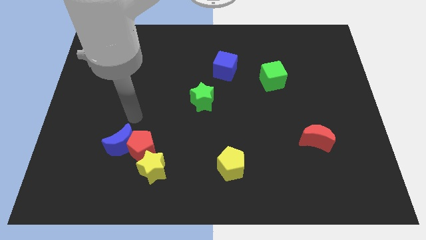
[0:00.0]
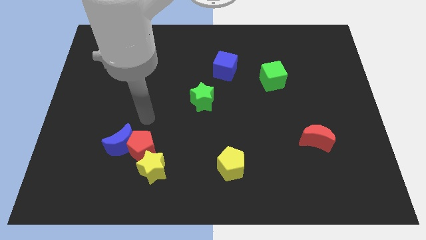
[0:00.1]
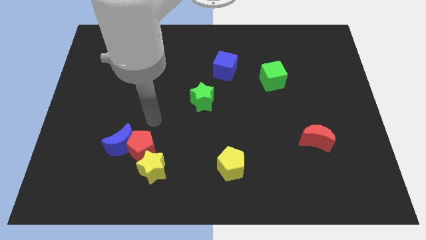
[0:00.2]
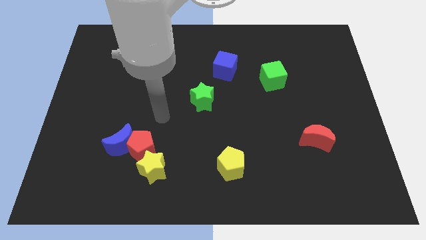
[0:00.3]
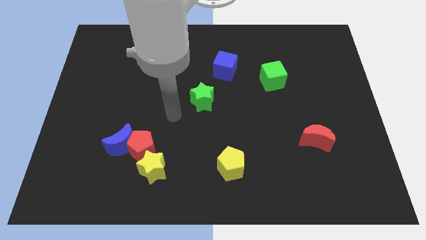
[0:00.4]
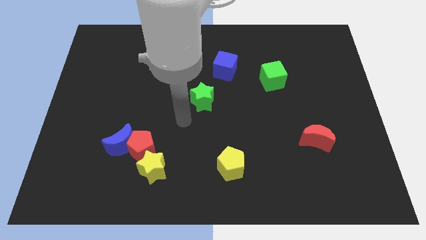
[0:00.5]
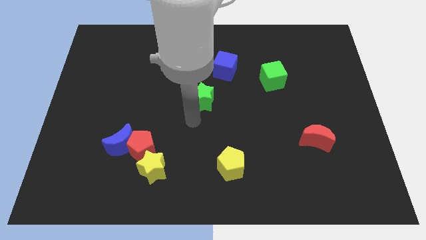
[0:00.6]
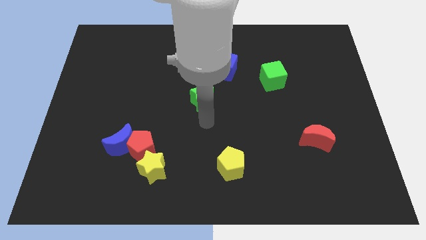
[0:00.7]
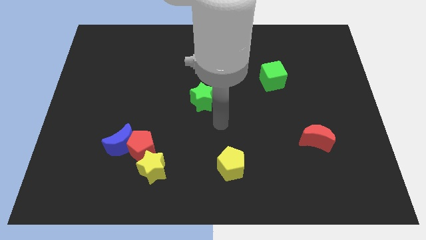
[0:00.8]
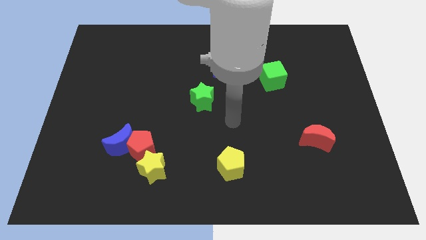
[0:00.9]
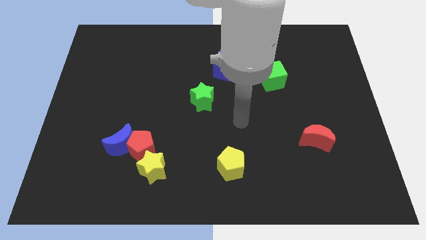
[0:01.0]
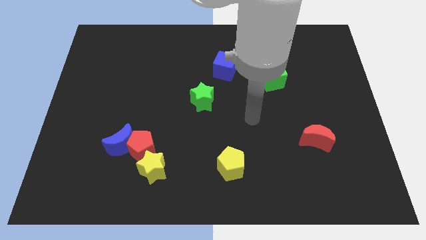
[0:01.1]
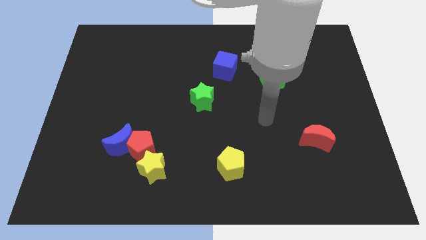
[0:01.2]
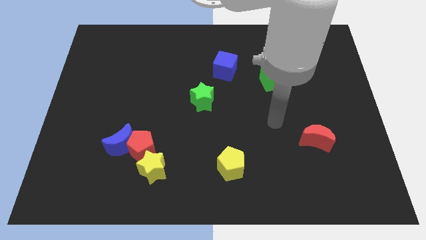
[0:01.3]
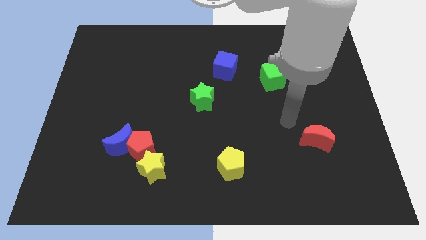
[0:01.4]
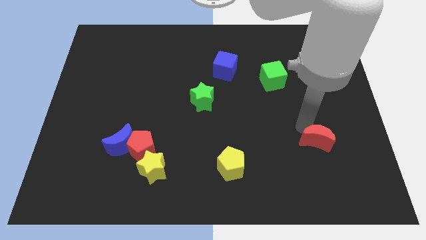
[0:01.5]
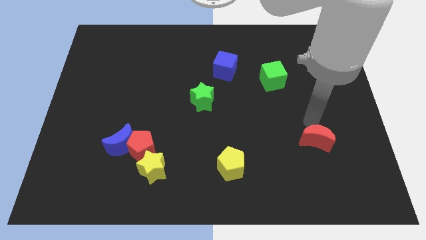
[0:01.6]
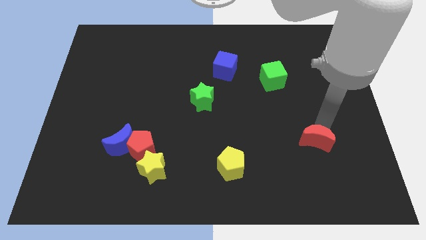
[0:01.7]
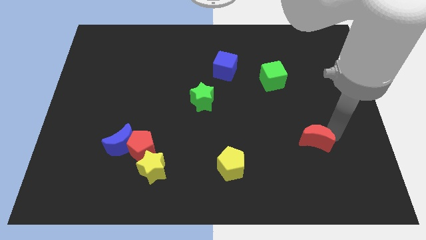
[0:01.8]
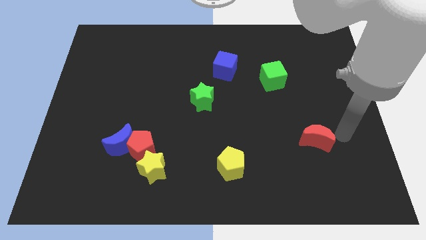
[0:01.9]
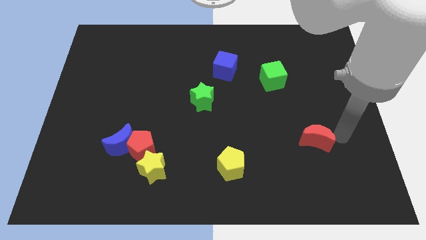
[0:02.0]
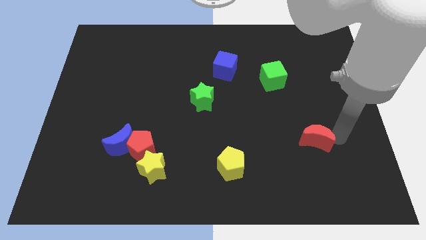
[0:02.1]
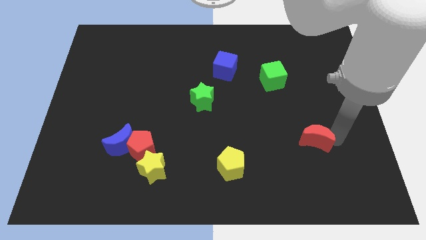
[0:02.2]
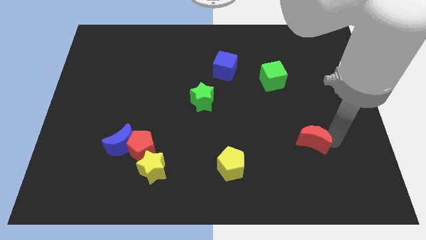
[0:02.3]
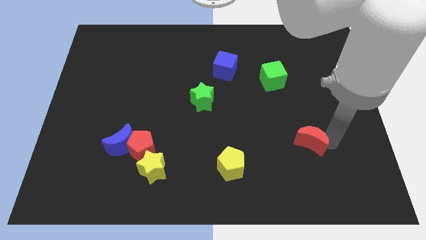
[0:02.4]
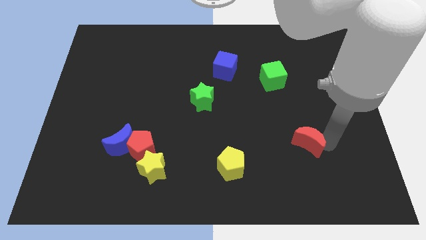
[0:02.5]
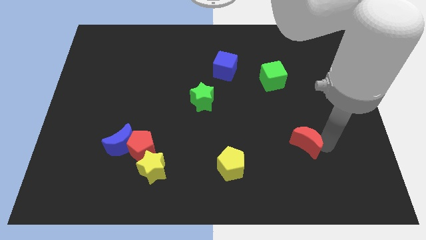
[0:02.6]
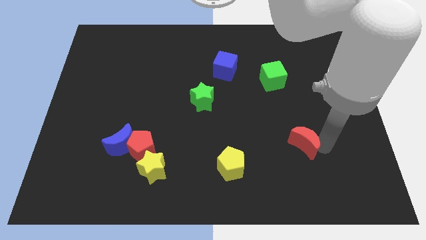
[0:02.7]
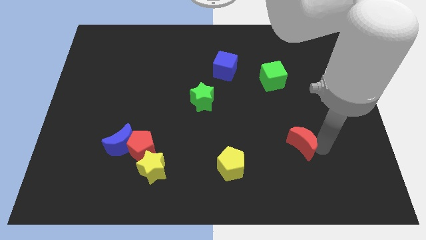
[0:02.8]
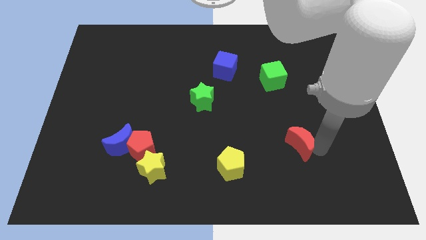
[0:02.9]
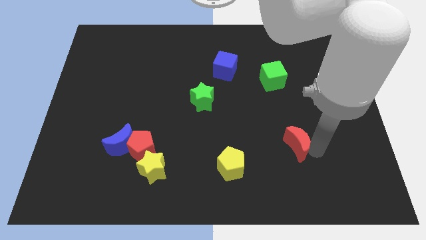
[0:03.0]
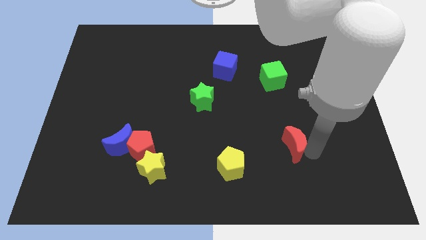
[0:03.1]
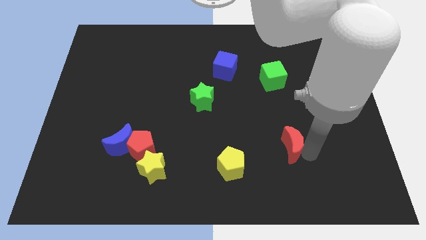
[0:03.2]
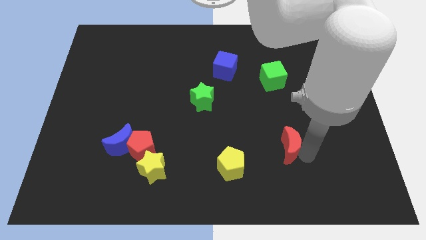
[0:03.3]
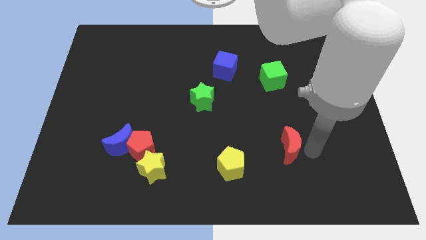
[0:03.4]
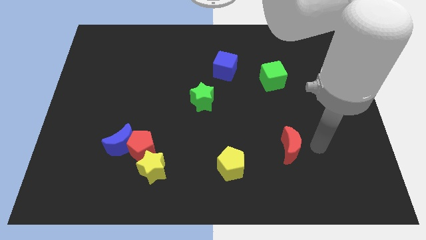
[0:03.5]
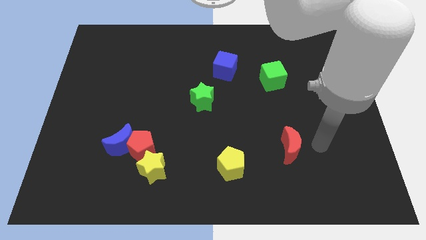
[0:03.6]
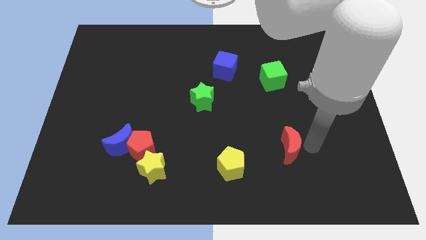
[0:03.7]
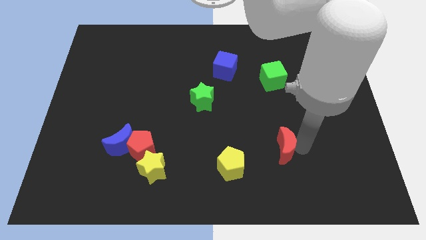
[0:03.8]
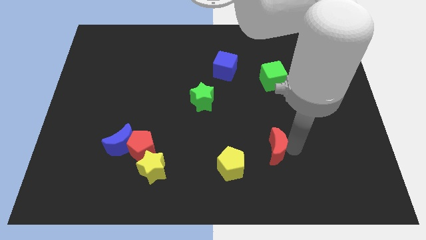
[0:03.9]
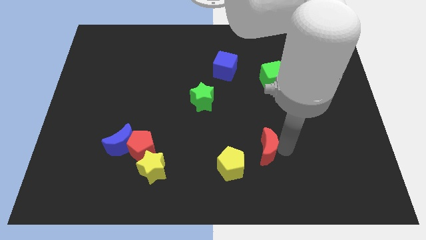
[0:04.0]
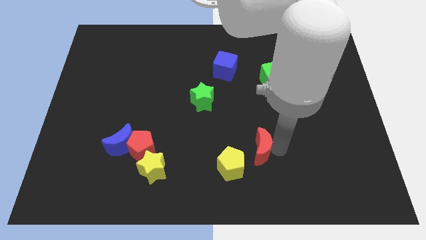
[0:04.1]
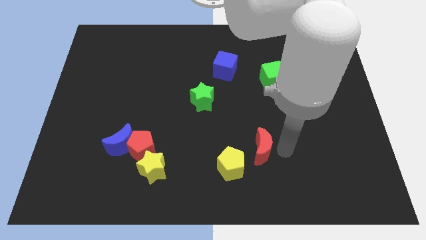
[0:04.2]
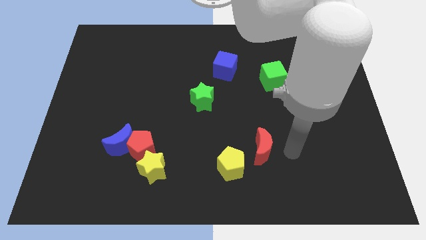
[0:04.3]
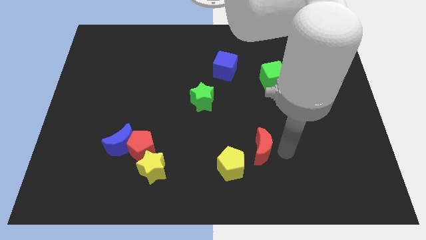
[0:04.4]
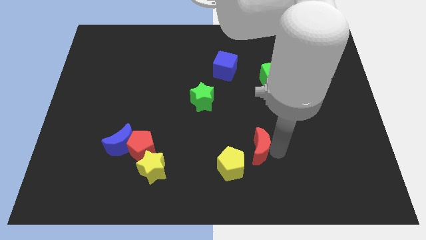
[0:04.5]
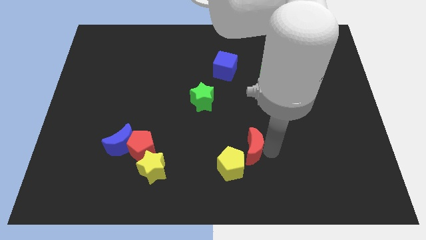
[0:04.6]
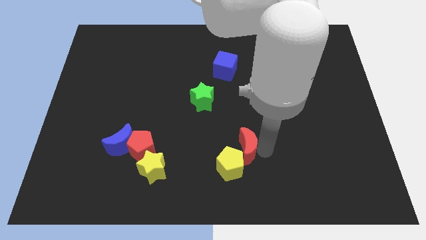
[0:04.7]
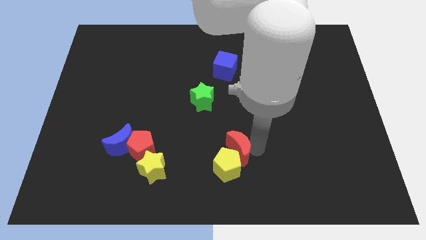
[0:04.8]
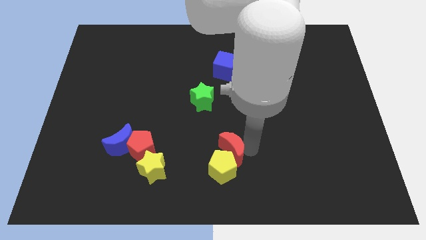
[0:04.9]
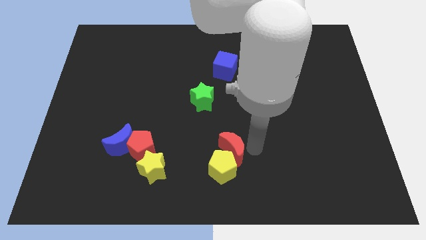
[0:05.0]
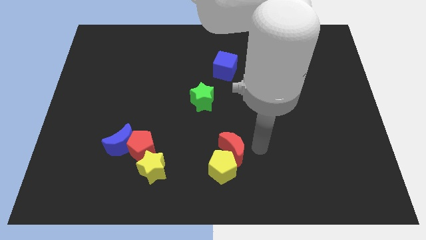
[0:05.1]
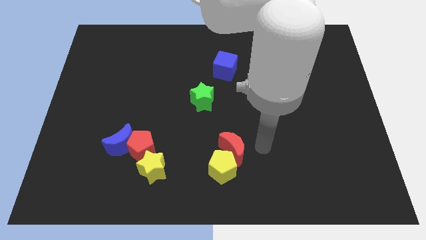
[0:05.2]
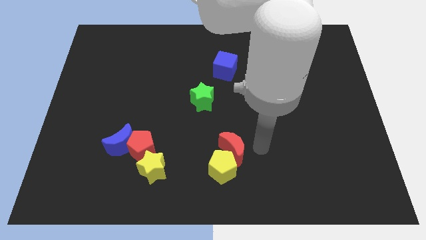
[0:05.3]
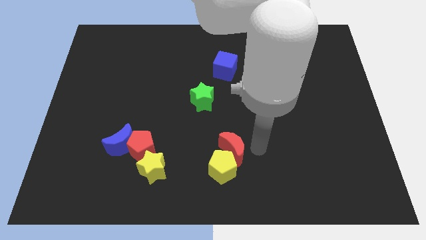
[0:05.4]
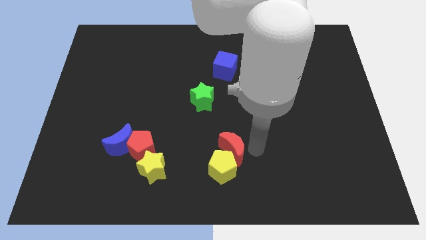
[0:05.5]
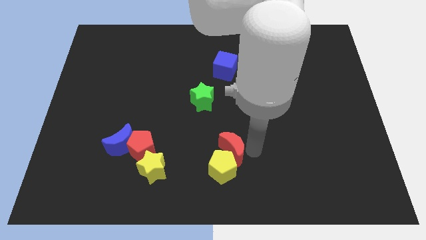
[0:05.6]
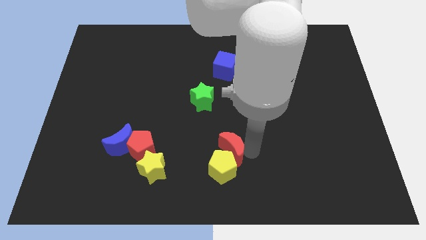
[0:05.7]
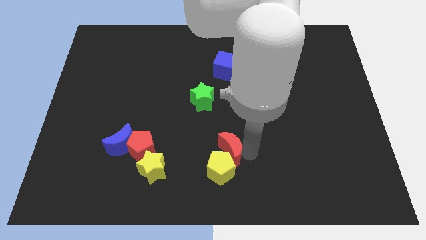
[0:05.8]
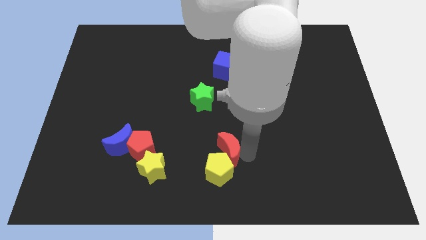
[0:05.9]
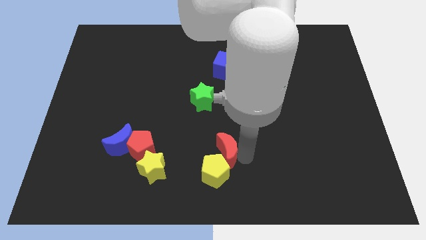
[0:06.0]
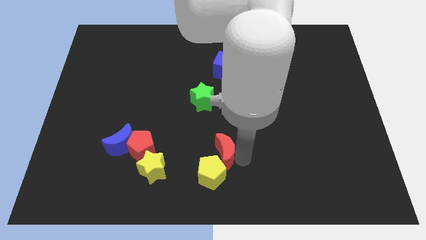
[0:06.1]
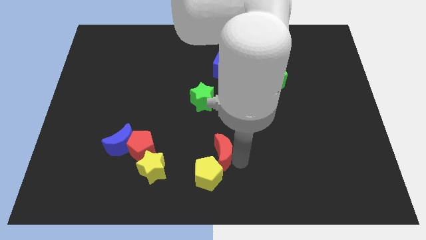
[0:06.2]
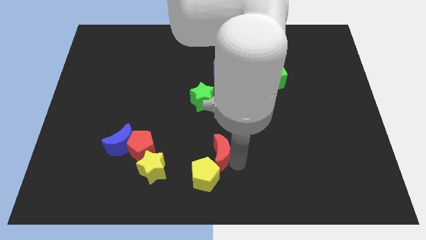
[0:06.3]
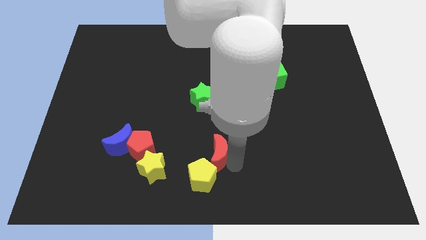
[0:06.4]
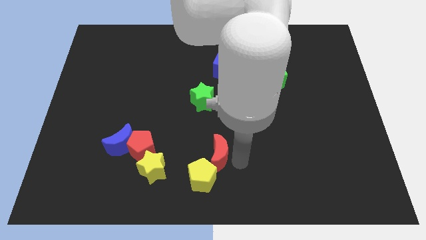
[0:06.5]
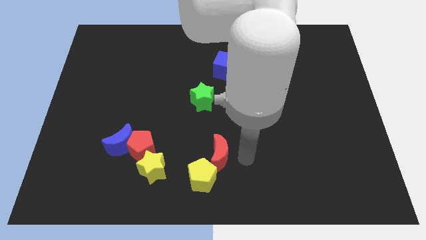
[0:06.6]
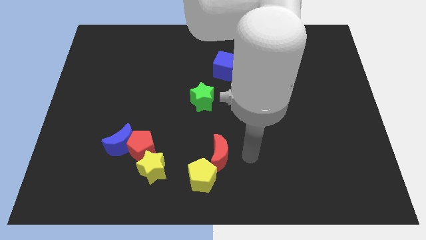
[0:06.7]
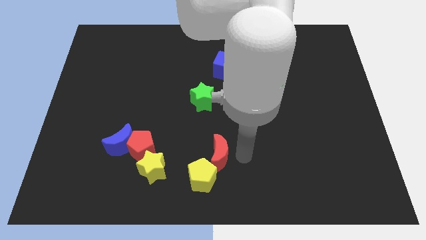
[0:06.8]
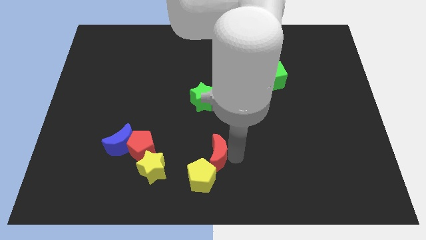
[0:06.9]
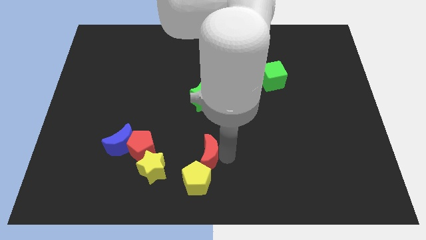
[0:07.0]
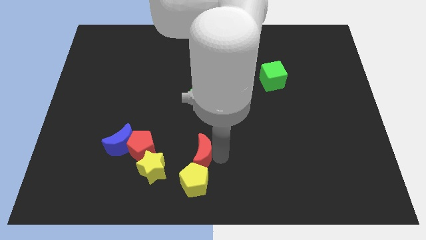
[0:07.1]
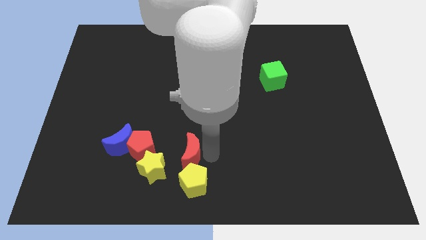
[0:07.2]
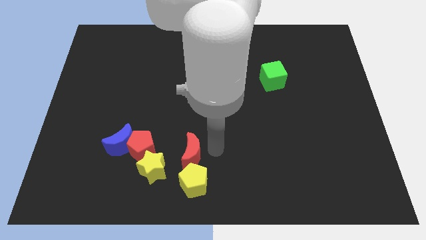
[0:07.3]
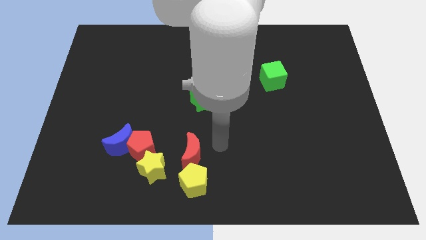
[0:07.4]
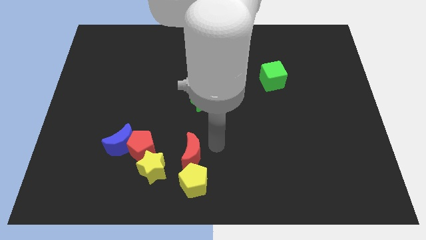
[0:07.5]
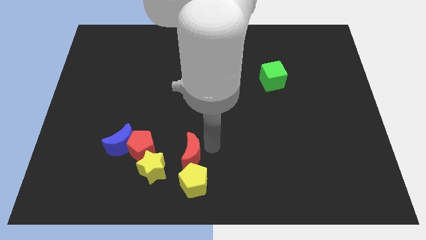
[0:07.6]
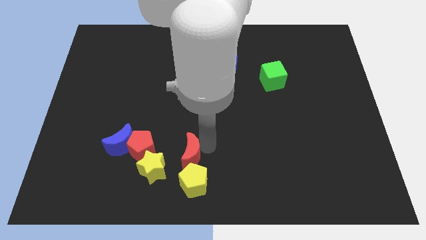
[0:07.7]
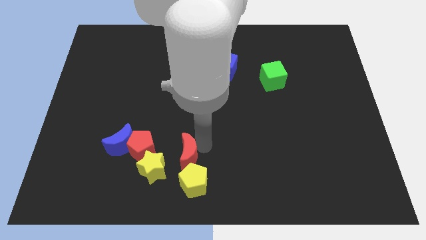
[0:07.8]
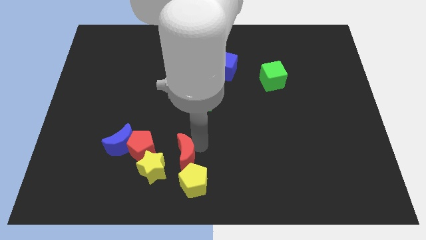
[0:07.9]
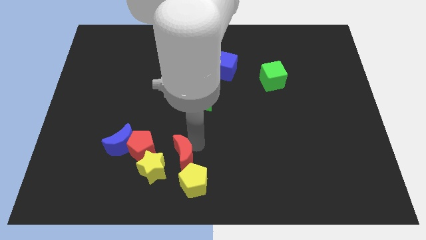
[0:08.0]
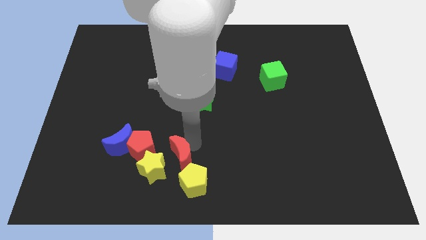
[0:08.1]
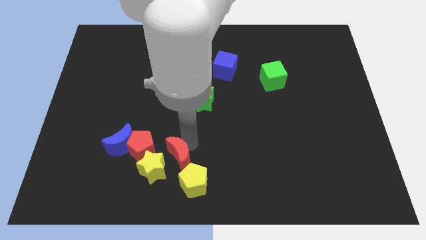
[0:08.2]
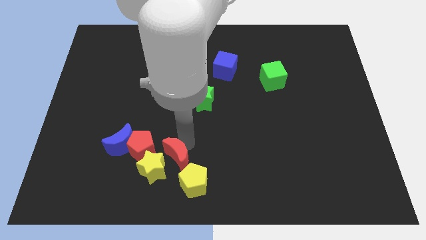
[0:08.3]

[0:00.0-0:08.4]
slide the red moon next to the yellow star
